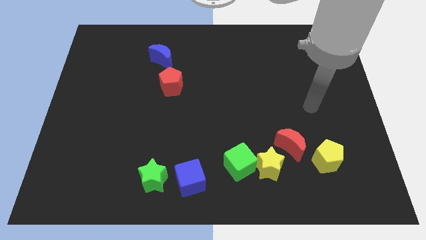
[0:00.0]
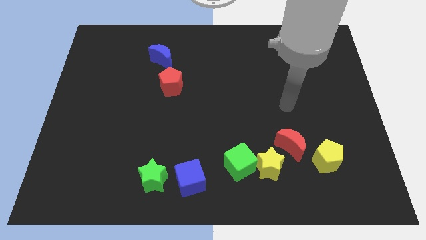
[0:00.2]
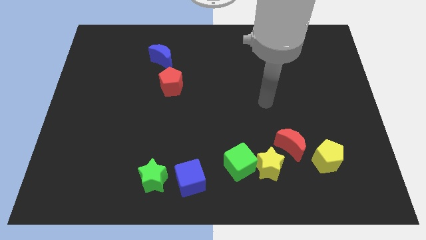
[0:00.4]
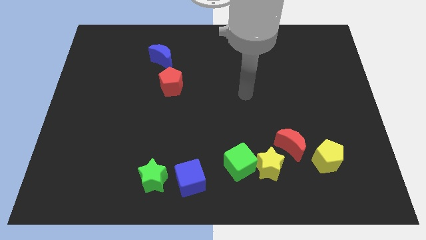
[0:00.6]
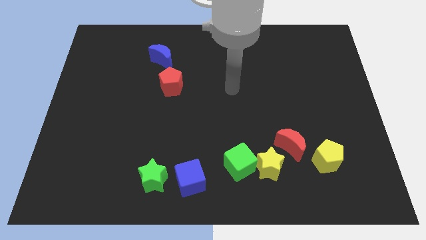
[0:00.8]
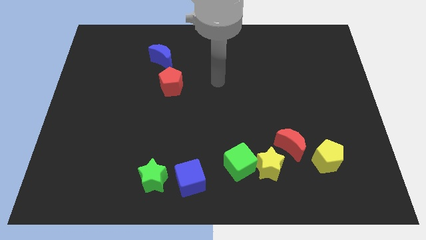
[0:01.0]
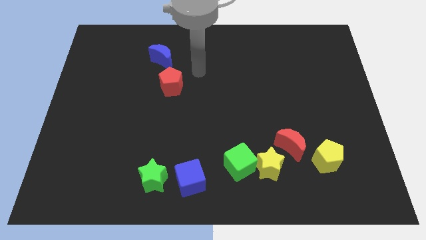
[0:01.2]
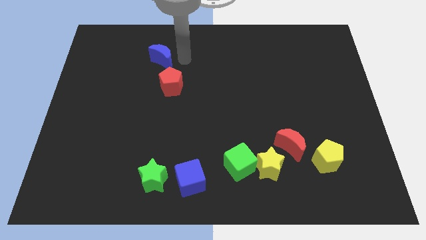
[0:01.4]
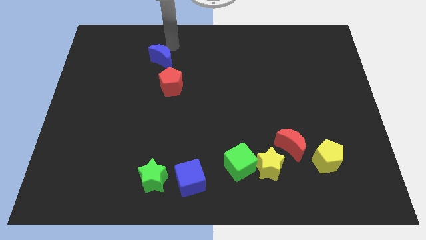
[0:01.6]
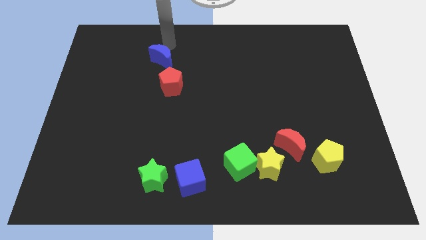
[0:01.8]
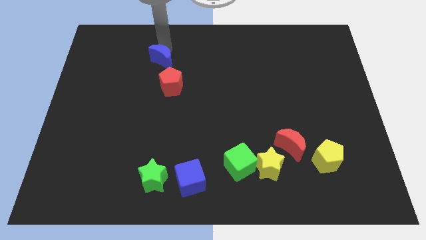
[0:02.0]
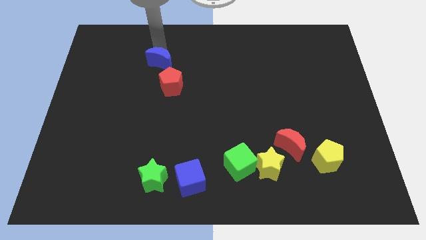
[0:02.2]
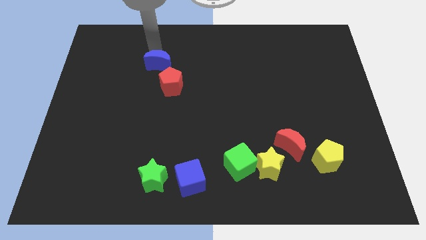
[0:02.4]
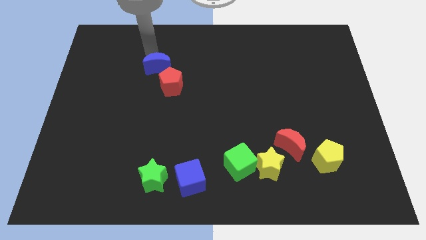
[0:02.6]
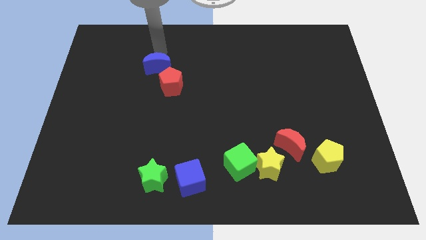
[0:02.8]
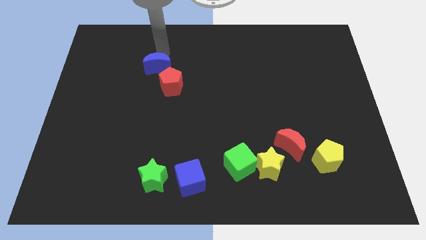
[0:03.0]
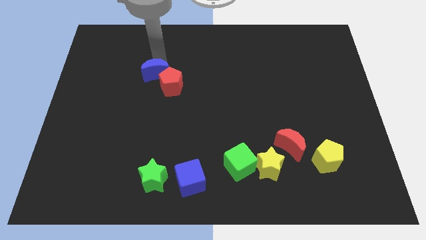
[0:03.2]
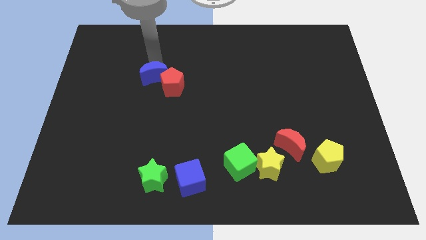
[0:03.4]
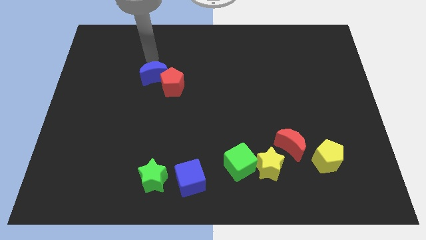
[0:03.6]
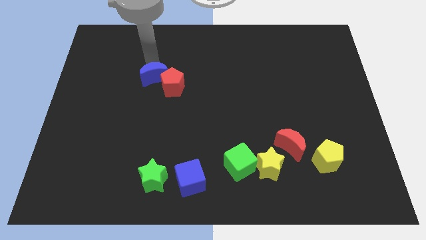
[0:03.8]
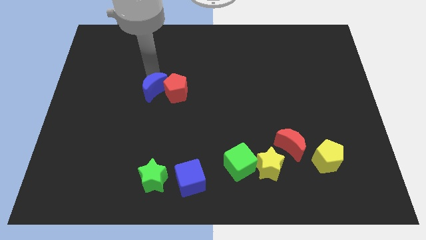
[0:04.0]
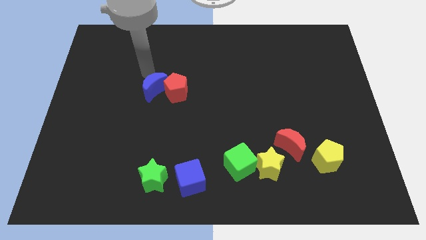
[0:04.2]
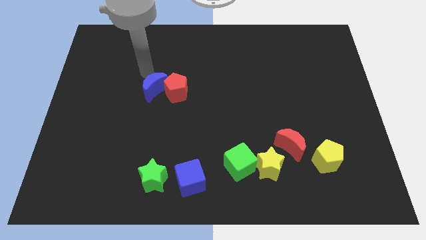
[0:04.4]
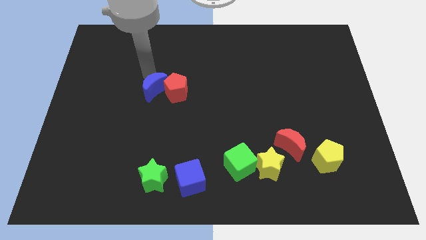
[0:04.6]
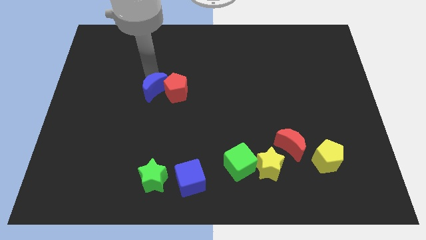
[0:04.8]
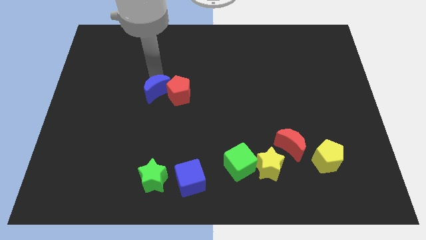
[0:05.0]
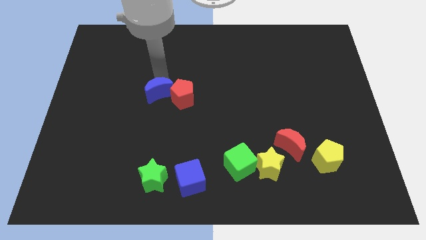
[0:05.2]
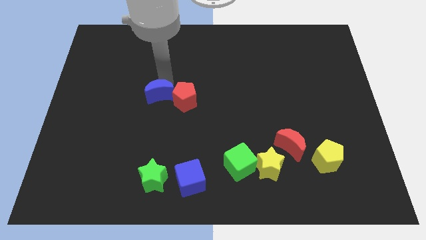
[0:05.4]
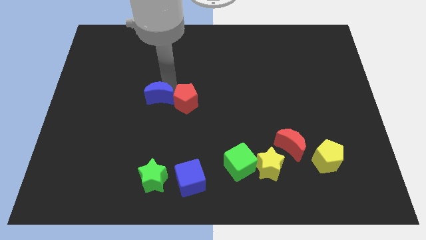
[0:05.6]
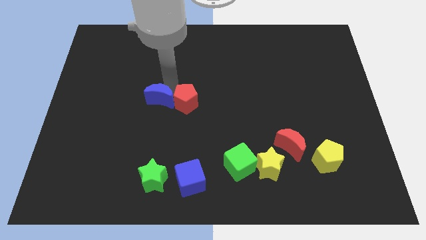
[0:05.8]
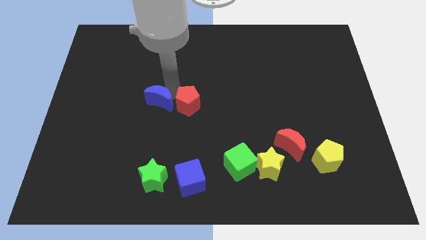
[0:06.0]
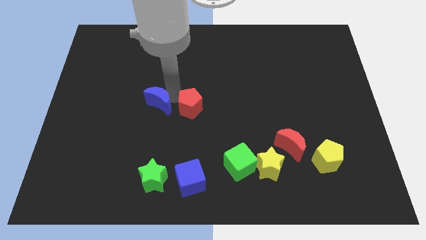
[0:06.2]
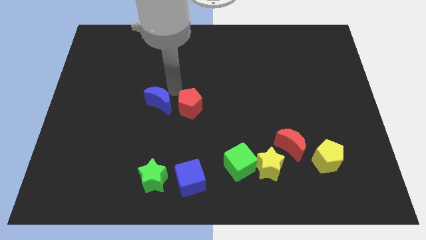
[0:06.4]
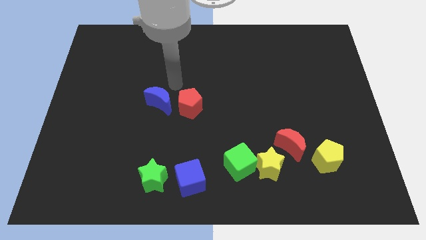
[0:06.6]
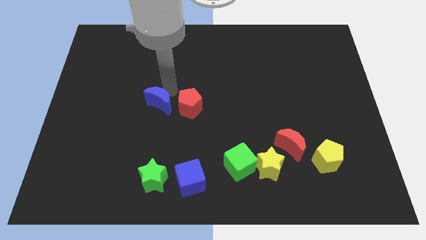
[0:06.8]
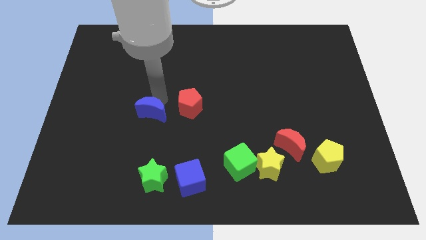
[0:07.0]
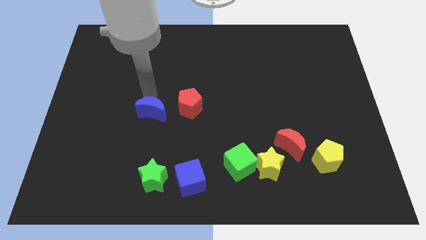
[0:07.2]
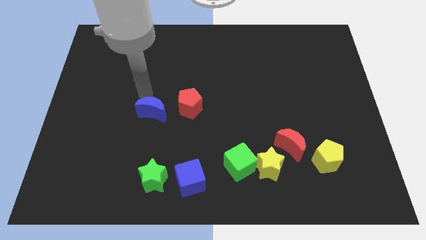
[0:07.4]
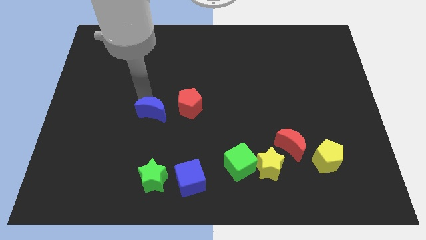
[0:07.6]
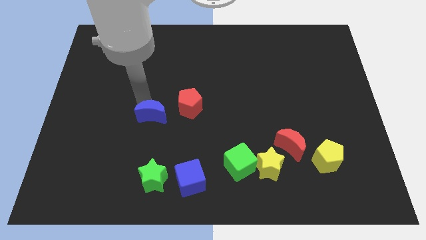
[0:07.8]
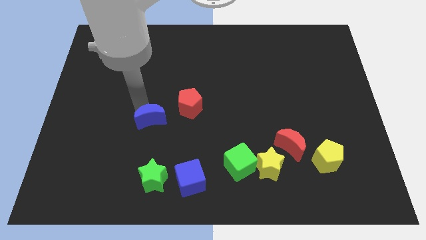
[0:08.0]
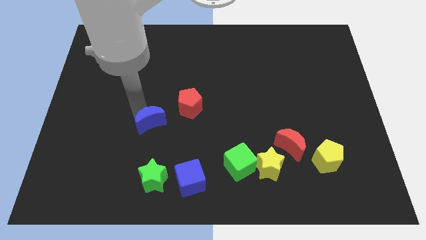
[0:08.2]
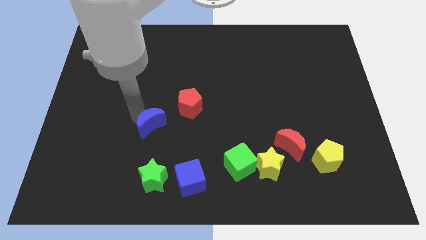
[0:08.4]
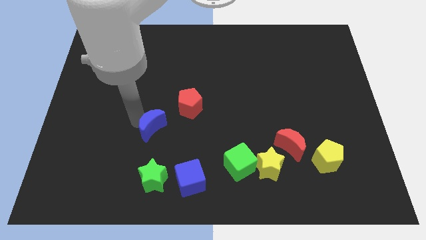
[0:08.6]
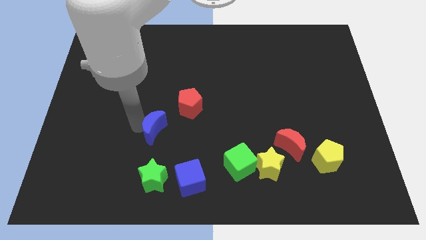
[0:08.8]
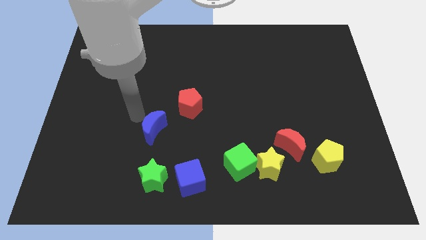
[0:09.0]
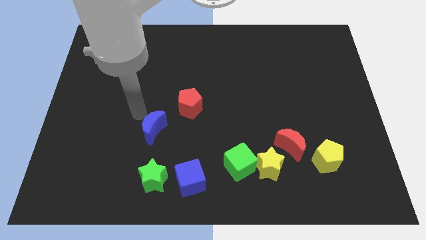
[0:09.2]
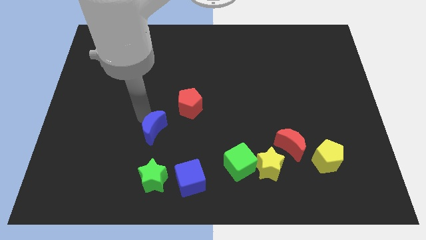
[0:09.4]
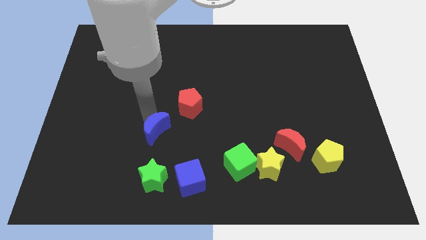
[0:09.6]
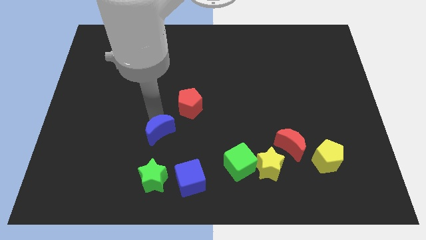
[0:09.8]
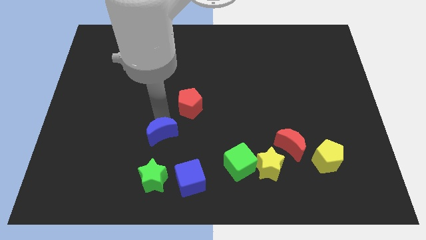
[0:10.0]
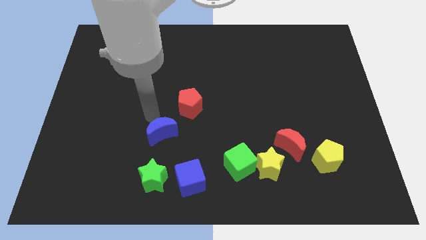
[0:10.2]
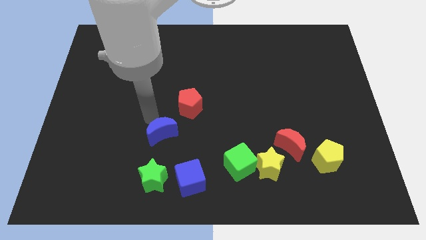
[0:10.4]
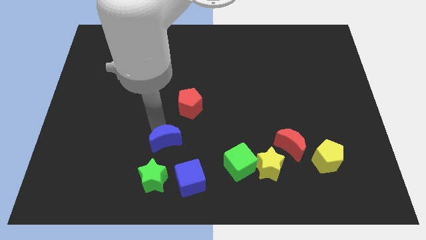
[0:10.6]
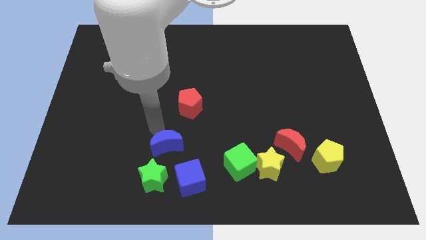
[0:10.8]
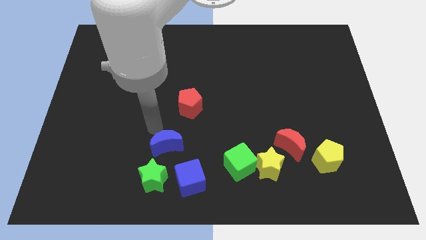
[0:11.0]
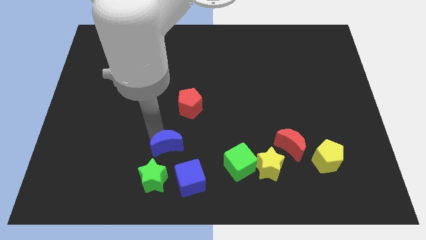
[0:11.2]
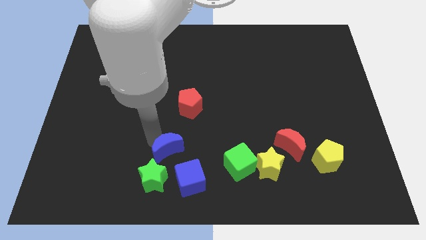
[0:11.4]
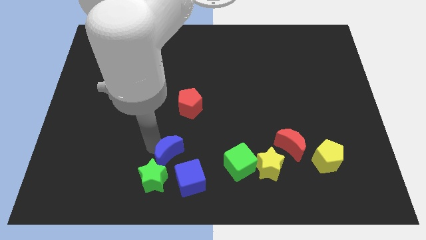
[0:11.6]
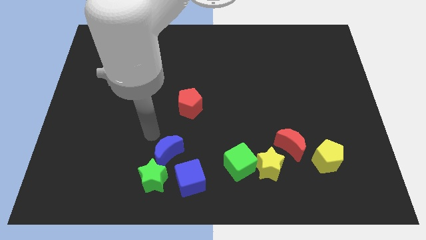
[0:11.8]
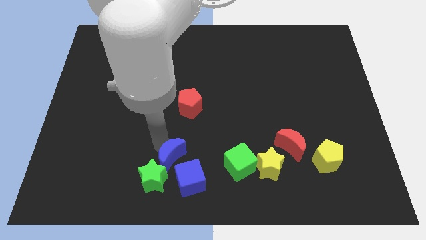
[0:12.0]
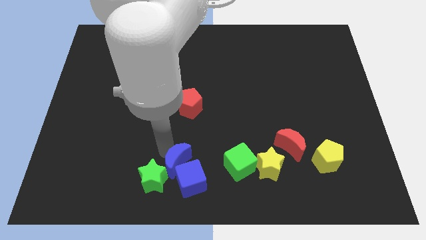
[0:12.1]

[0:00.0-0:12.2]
move the blue moon next to the blue cube

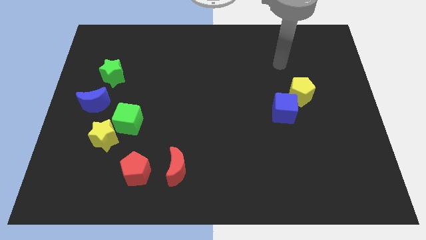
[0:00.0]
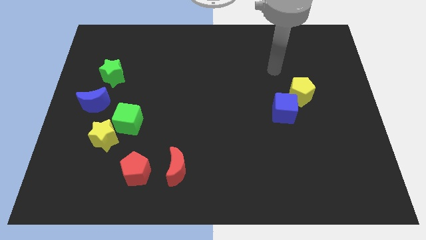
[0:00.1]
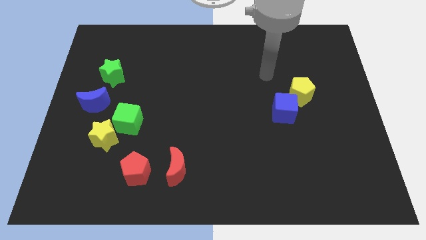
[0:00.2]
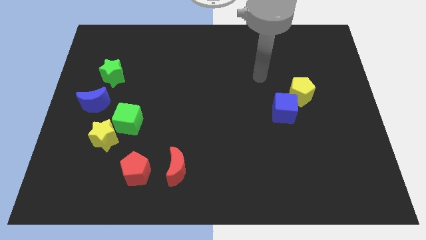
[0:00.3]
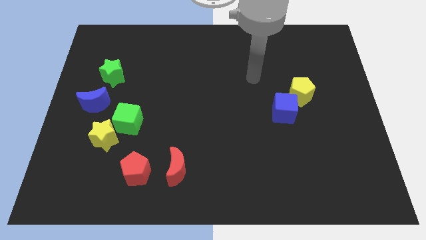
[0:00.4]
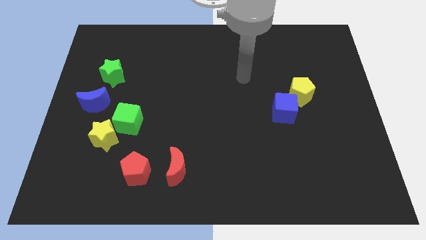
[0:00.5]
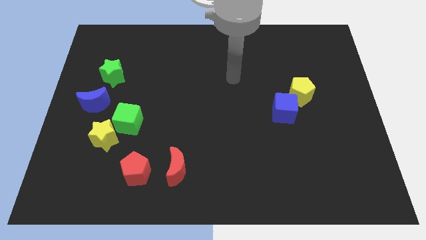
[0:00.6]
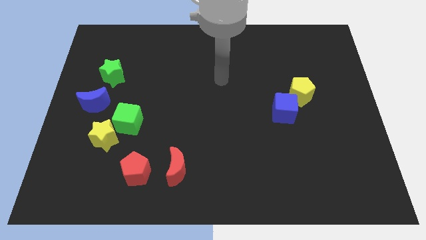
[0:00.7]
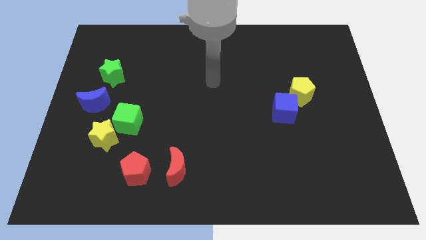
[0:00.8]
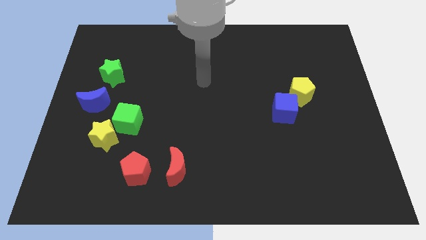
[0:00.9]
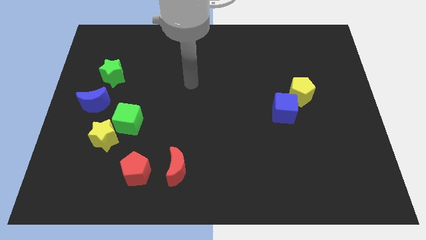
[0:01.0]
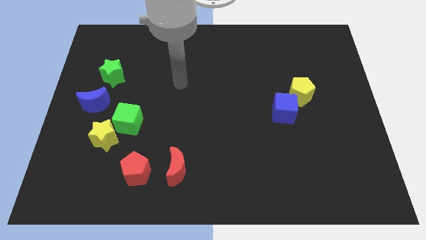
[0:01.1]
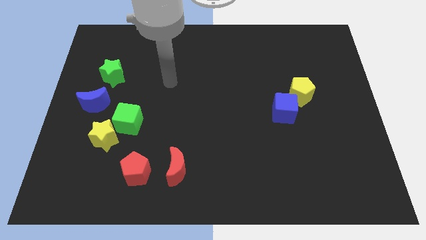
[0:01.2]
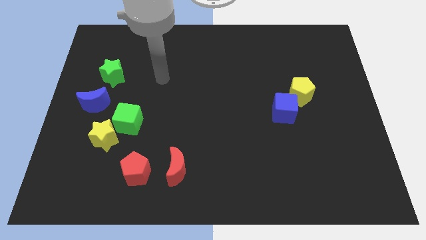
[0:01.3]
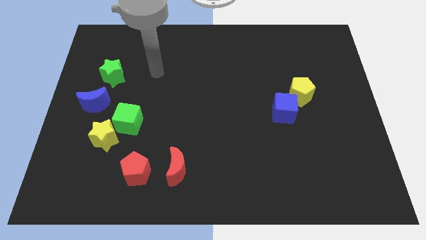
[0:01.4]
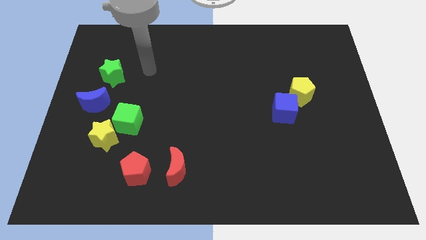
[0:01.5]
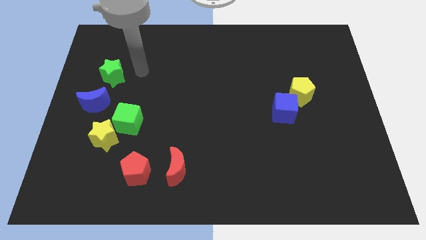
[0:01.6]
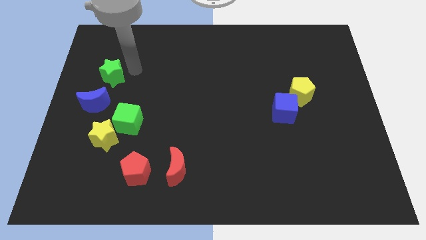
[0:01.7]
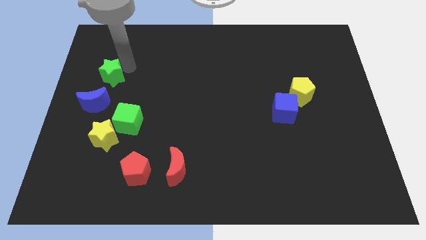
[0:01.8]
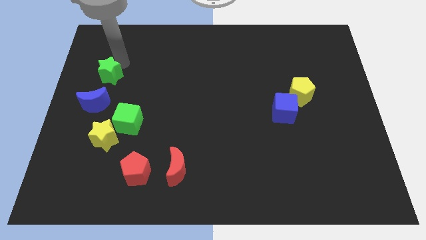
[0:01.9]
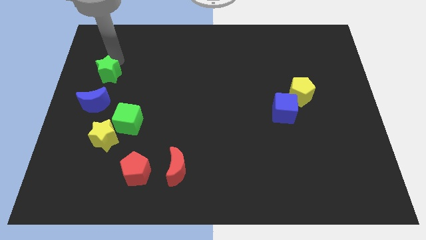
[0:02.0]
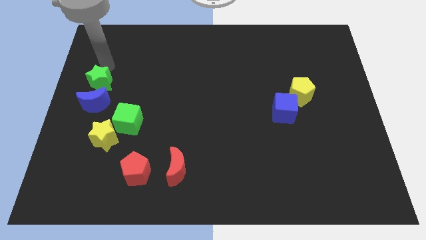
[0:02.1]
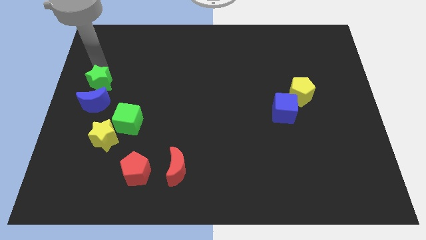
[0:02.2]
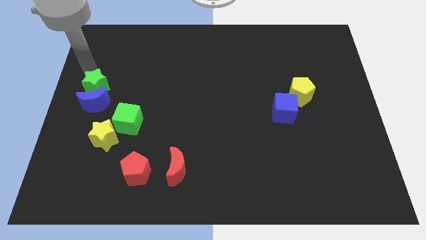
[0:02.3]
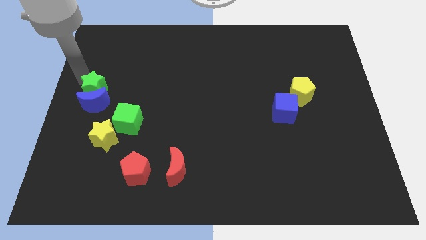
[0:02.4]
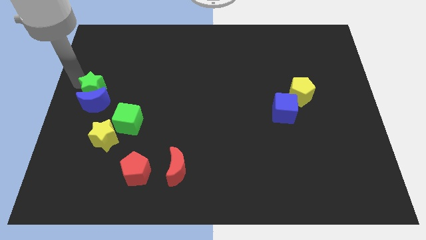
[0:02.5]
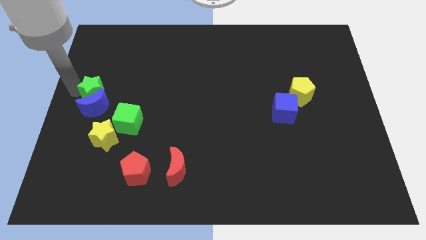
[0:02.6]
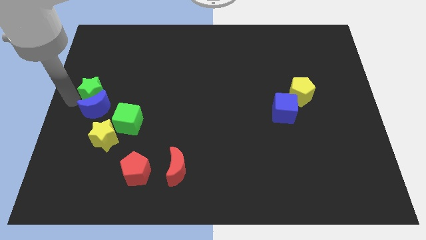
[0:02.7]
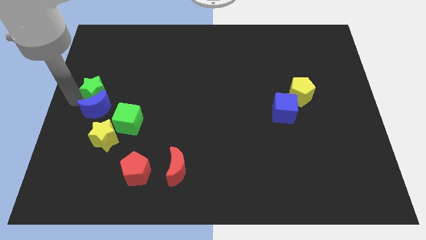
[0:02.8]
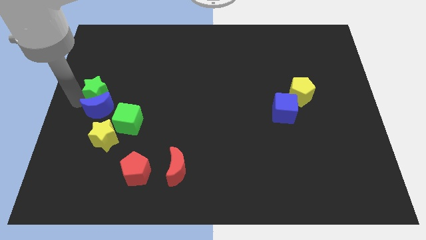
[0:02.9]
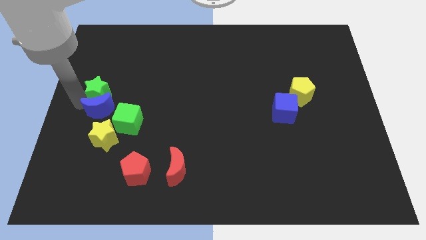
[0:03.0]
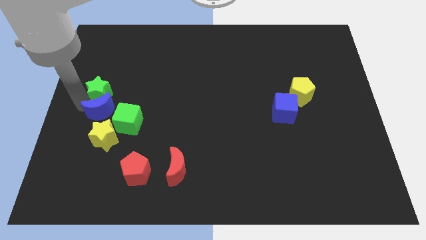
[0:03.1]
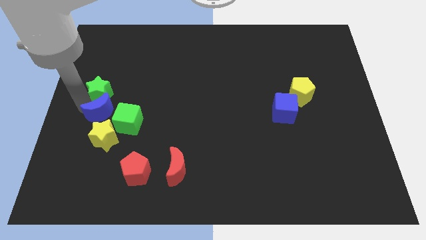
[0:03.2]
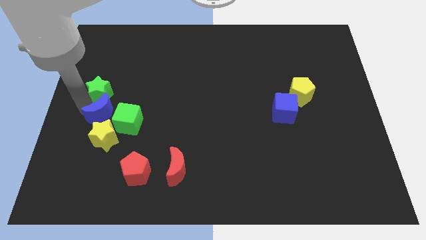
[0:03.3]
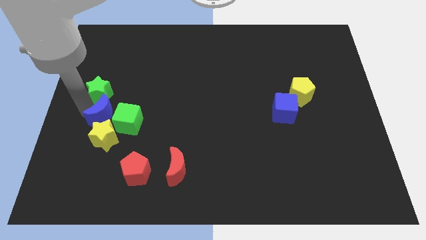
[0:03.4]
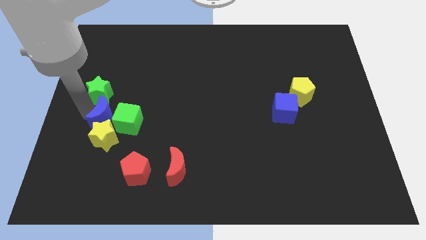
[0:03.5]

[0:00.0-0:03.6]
push the blue moon towards the green cube
